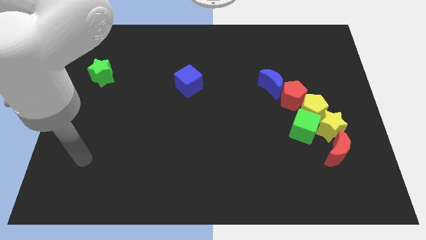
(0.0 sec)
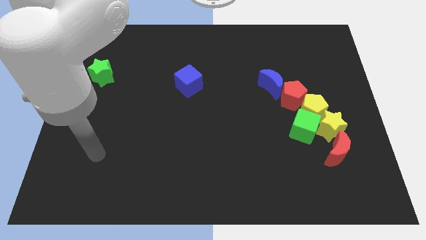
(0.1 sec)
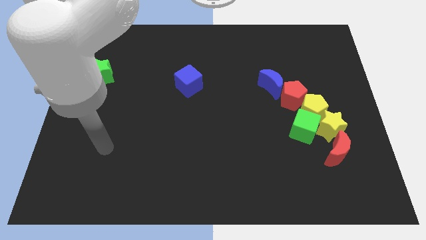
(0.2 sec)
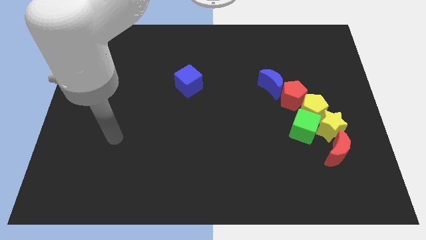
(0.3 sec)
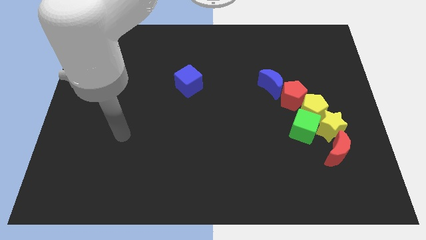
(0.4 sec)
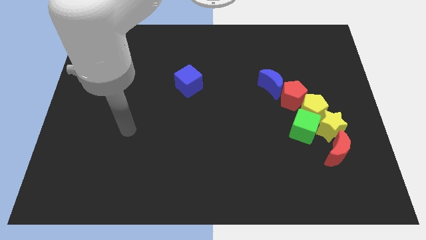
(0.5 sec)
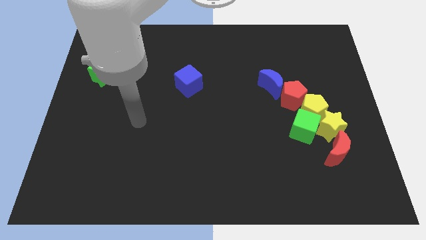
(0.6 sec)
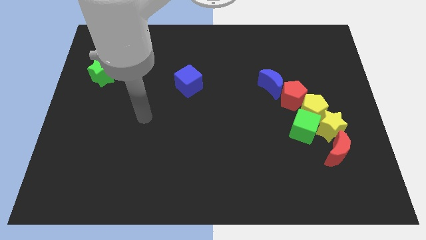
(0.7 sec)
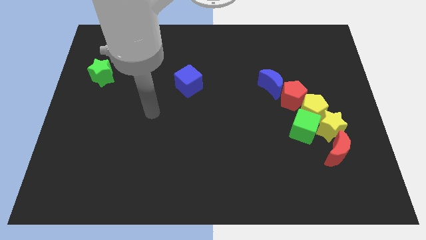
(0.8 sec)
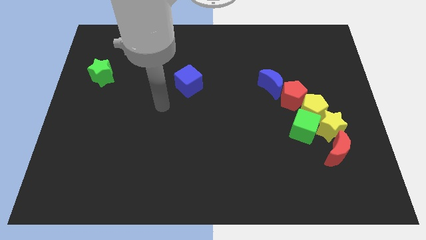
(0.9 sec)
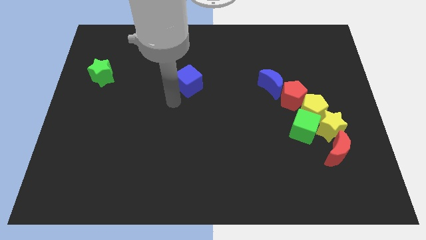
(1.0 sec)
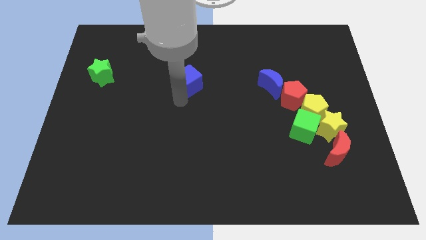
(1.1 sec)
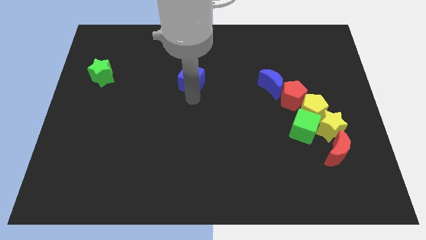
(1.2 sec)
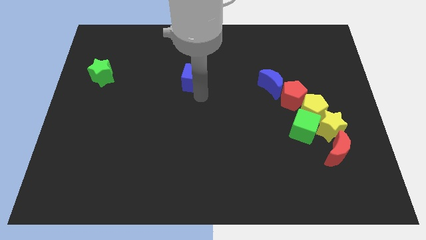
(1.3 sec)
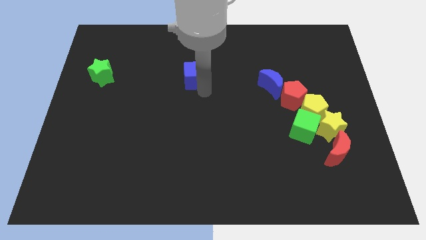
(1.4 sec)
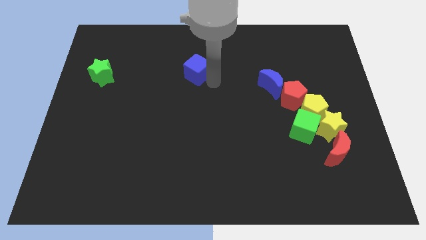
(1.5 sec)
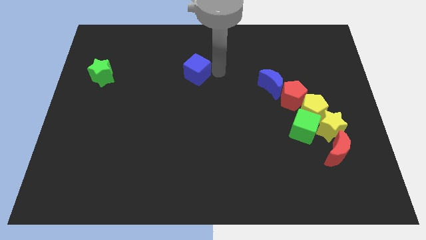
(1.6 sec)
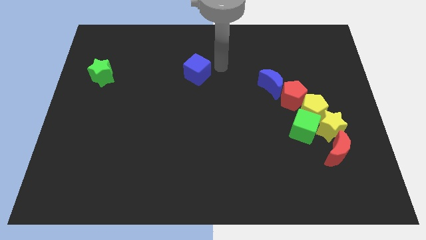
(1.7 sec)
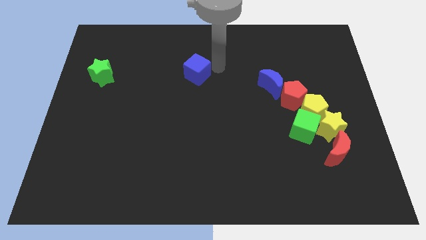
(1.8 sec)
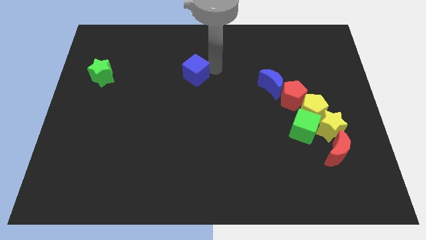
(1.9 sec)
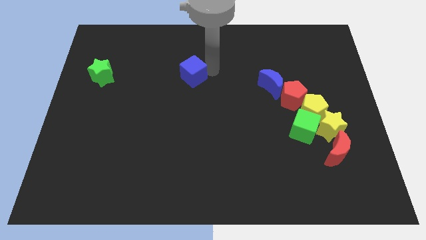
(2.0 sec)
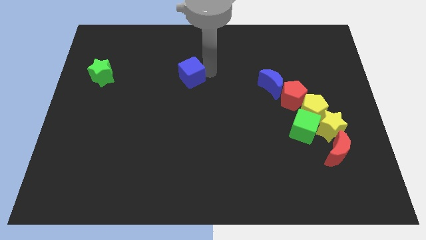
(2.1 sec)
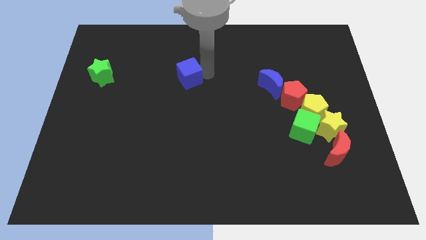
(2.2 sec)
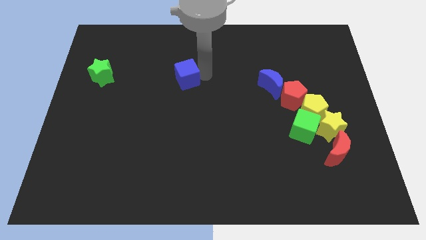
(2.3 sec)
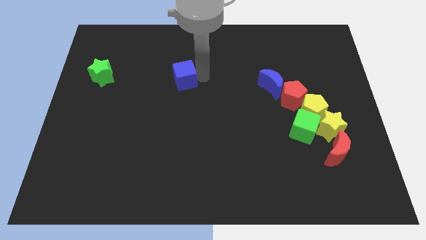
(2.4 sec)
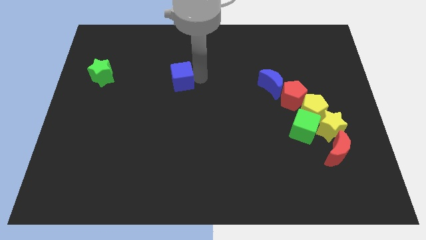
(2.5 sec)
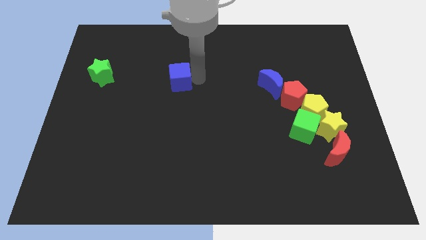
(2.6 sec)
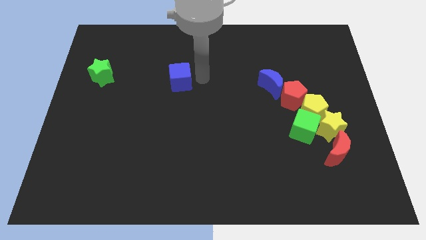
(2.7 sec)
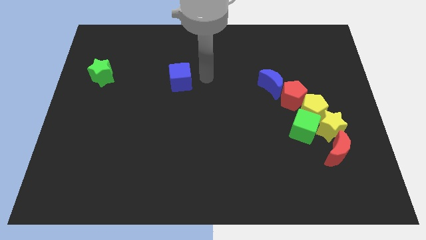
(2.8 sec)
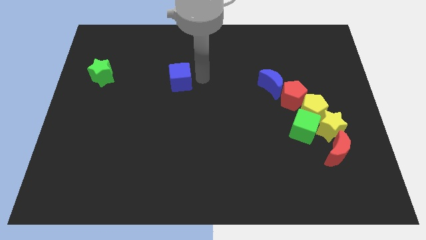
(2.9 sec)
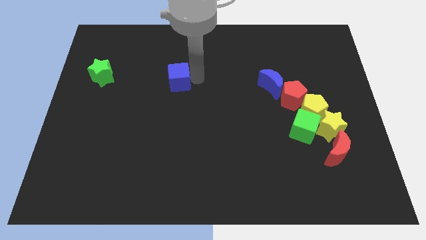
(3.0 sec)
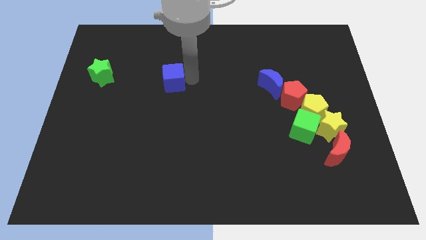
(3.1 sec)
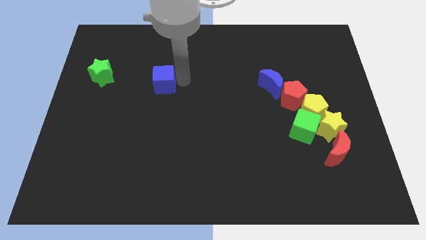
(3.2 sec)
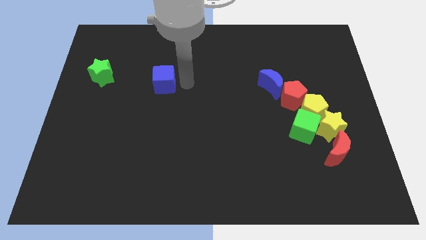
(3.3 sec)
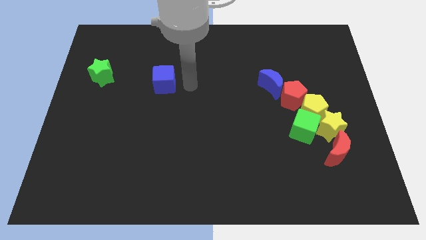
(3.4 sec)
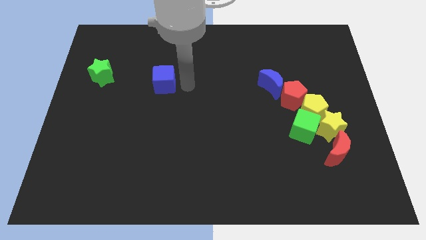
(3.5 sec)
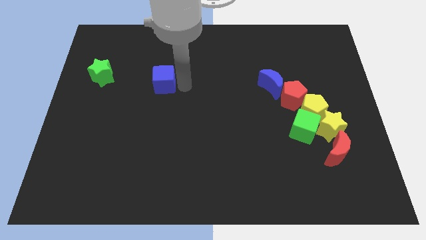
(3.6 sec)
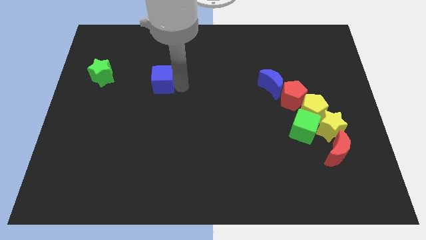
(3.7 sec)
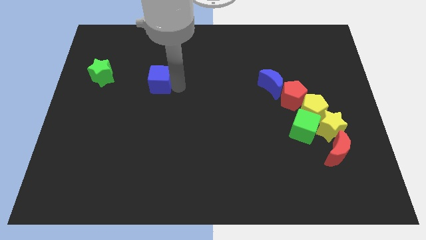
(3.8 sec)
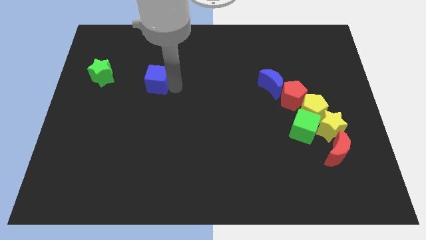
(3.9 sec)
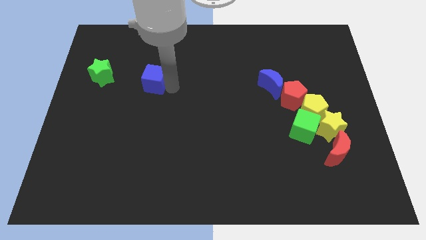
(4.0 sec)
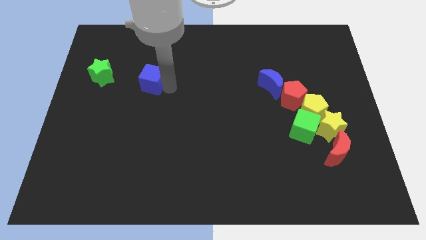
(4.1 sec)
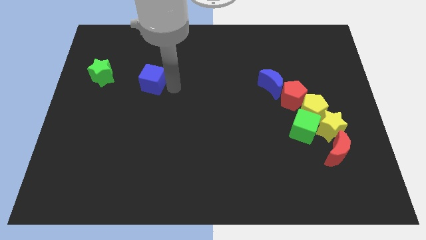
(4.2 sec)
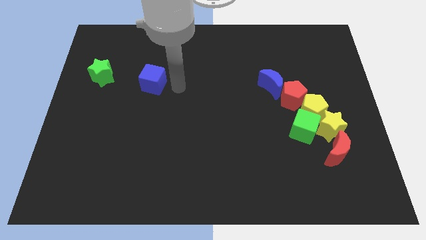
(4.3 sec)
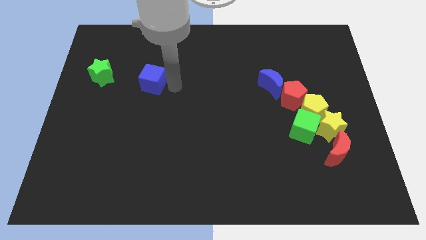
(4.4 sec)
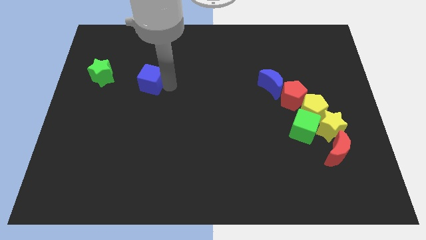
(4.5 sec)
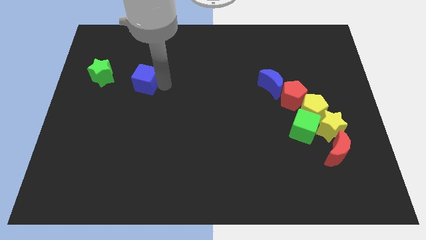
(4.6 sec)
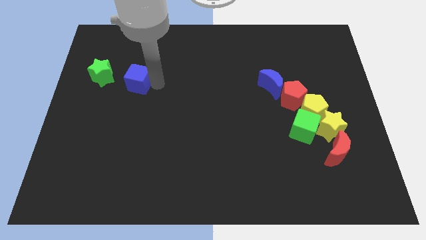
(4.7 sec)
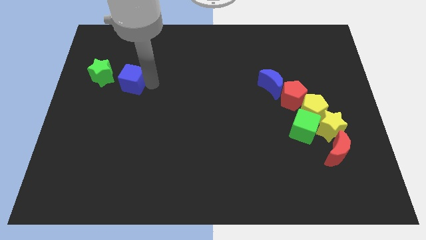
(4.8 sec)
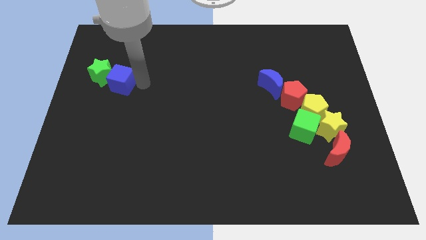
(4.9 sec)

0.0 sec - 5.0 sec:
slide the blue cube close to the green star

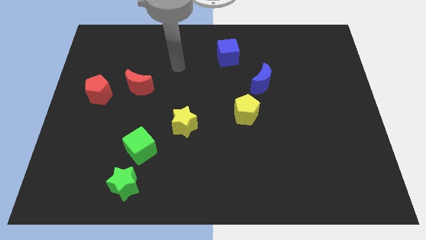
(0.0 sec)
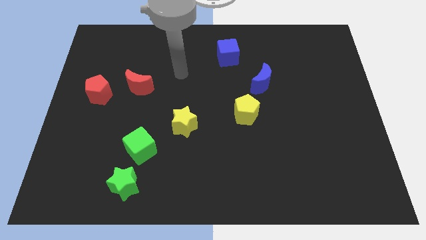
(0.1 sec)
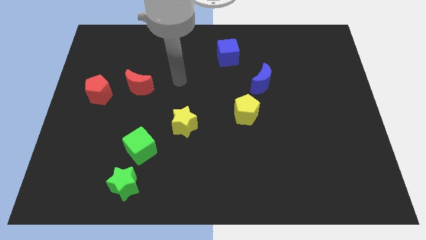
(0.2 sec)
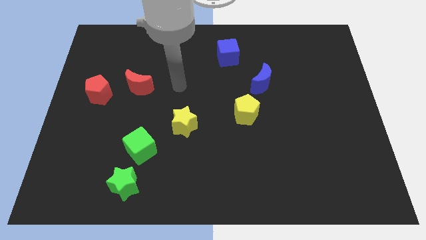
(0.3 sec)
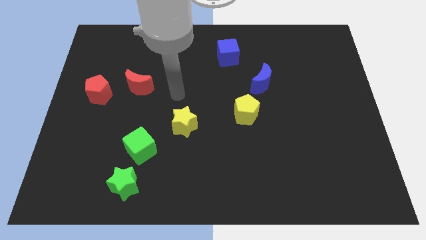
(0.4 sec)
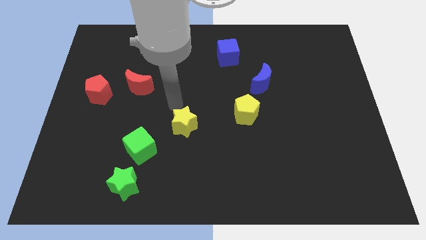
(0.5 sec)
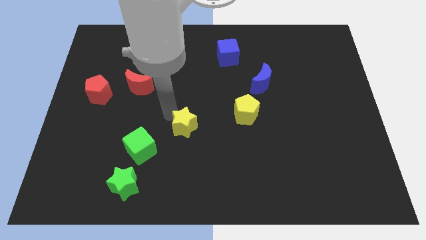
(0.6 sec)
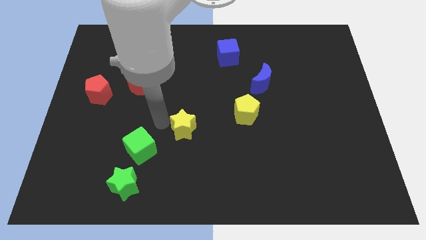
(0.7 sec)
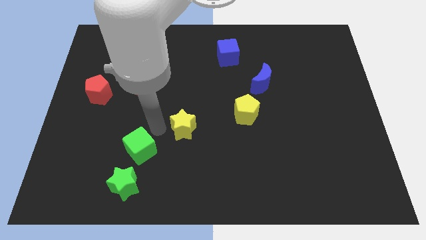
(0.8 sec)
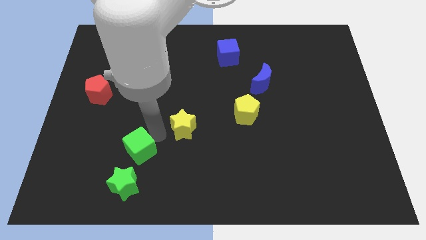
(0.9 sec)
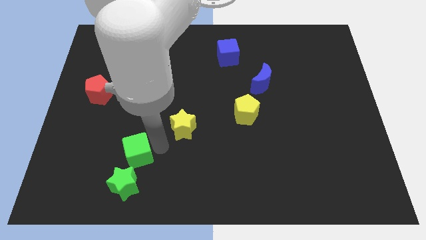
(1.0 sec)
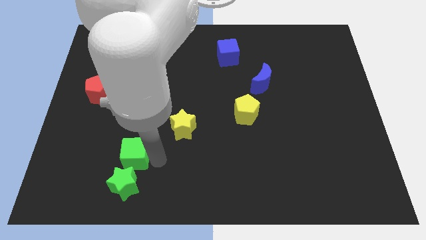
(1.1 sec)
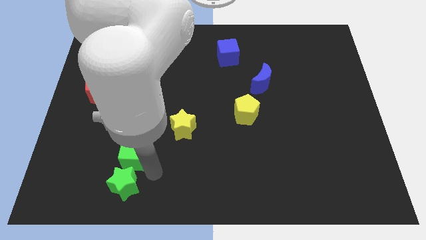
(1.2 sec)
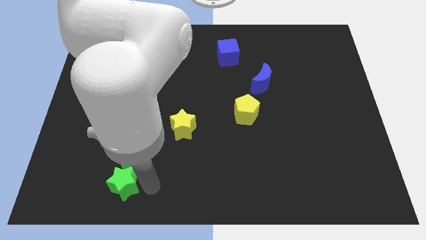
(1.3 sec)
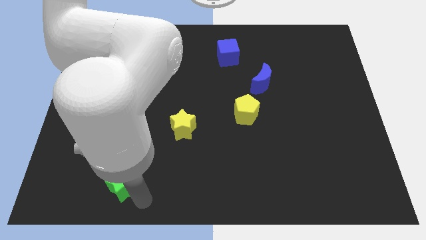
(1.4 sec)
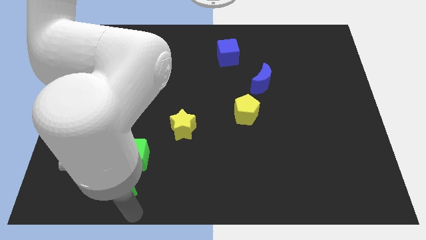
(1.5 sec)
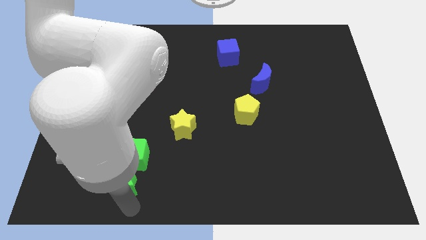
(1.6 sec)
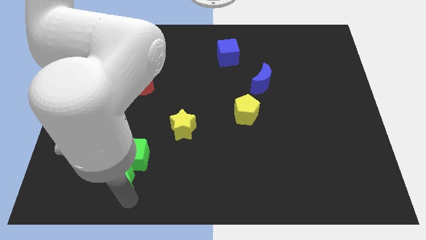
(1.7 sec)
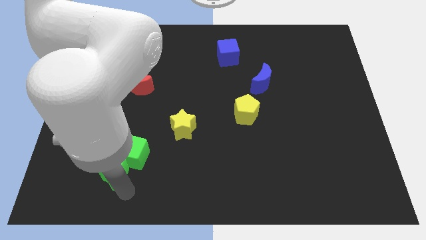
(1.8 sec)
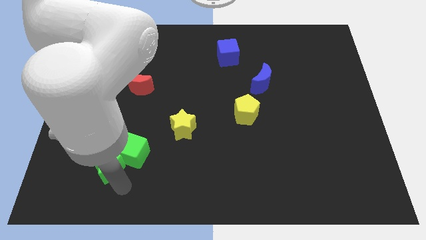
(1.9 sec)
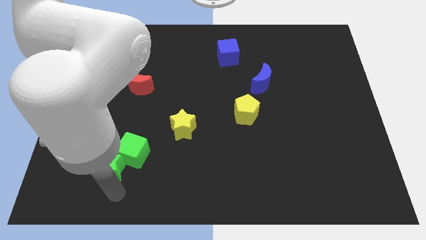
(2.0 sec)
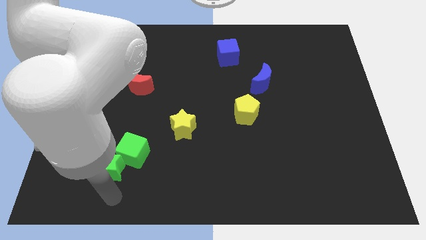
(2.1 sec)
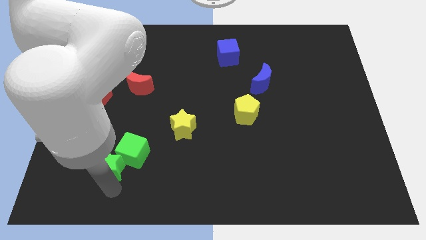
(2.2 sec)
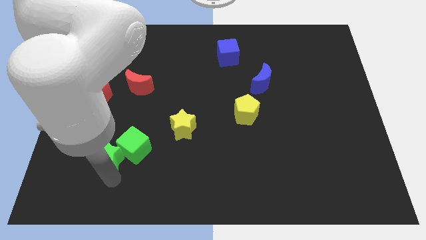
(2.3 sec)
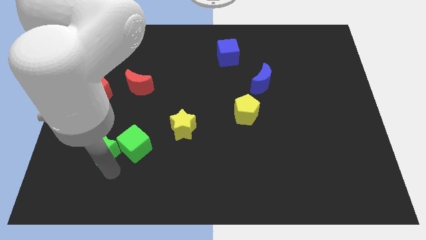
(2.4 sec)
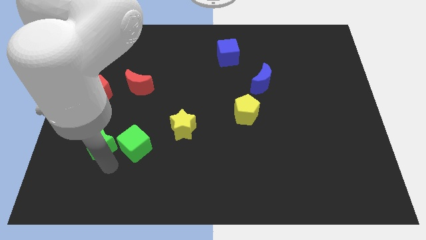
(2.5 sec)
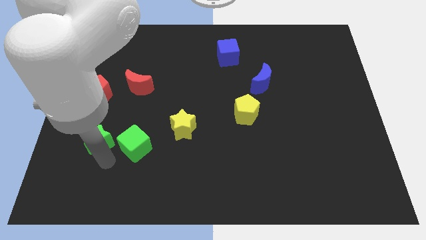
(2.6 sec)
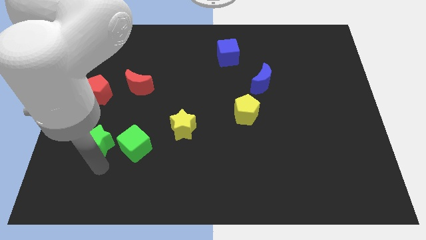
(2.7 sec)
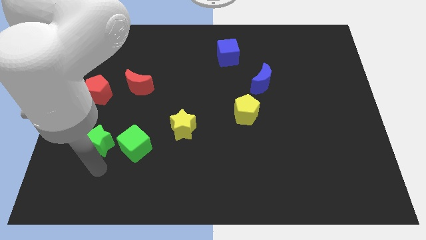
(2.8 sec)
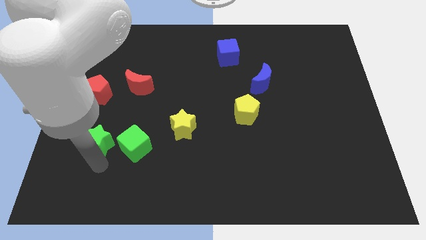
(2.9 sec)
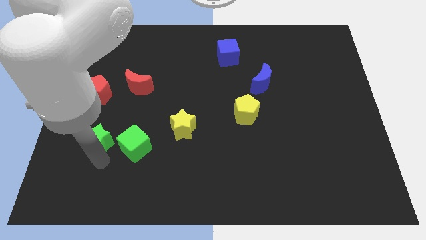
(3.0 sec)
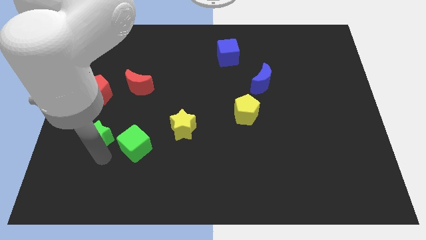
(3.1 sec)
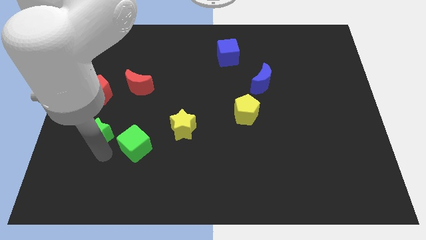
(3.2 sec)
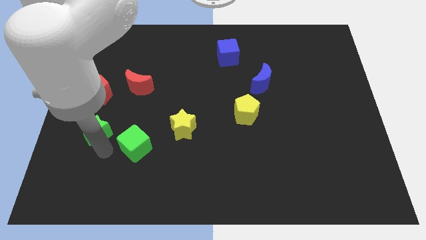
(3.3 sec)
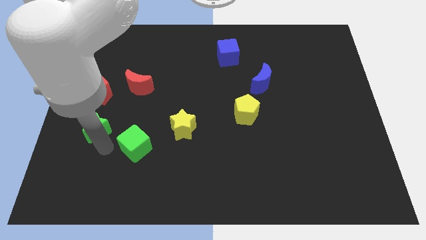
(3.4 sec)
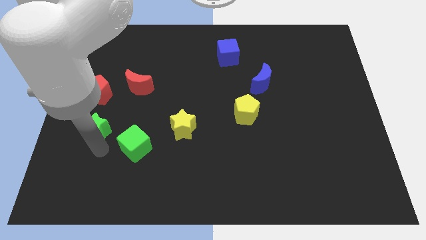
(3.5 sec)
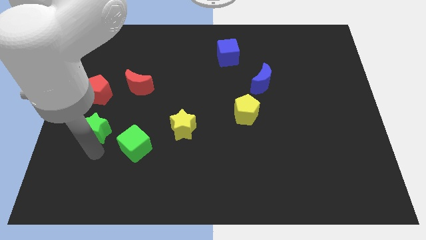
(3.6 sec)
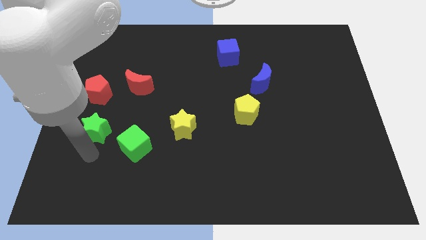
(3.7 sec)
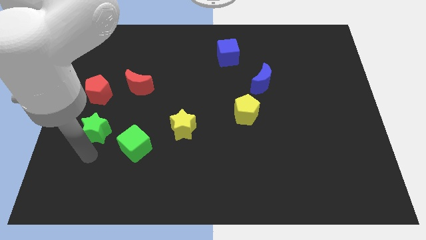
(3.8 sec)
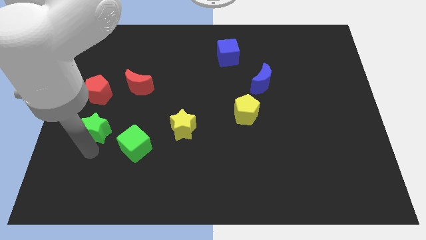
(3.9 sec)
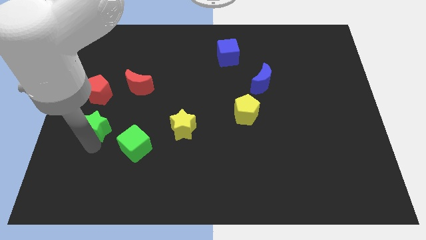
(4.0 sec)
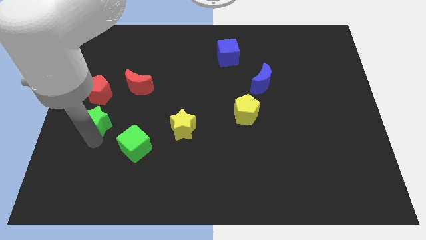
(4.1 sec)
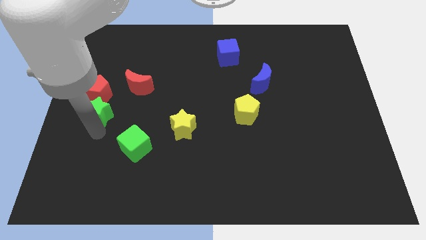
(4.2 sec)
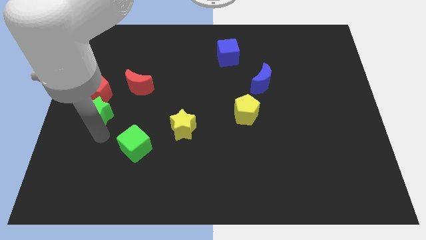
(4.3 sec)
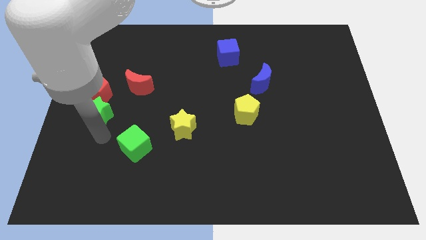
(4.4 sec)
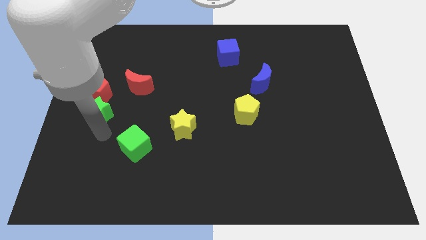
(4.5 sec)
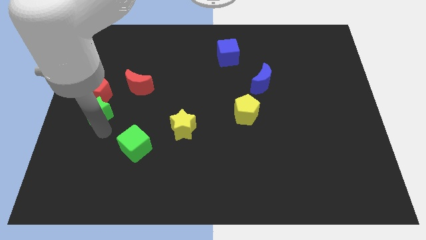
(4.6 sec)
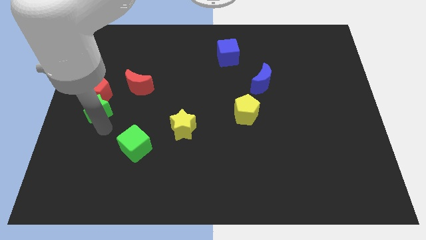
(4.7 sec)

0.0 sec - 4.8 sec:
move the green star next to the red pentagon
